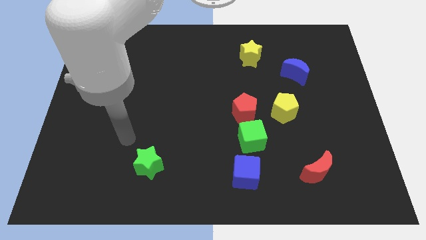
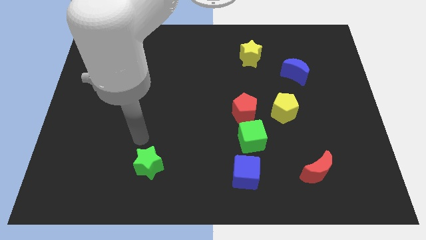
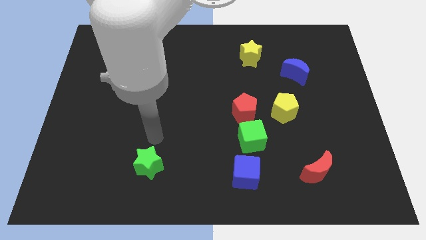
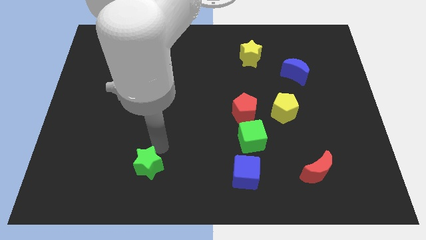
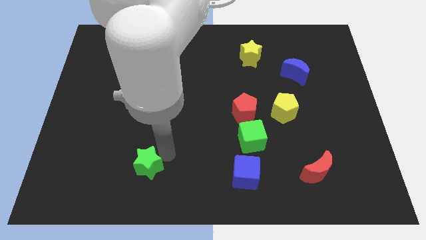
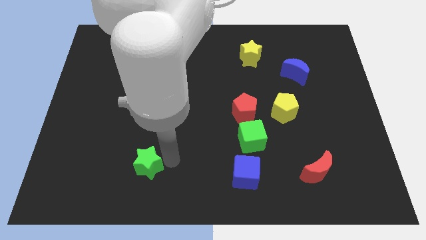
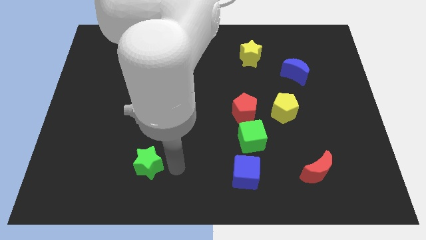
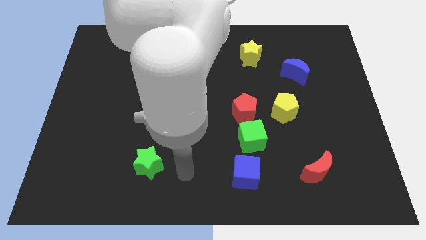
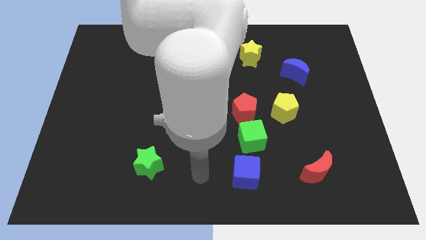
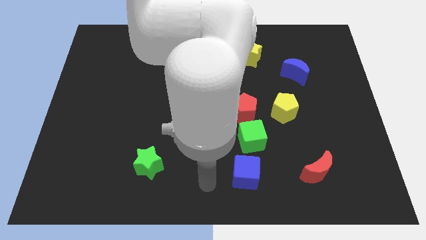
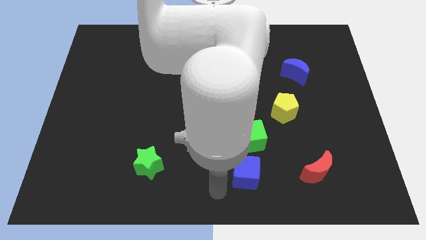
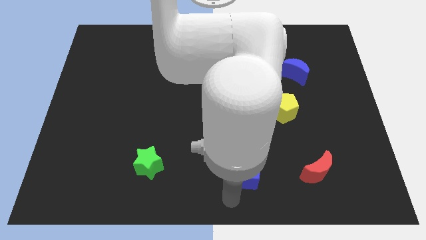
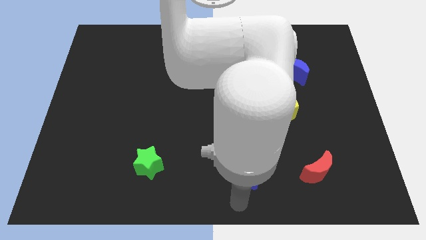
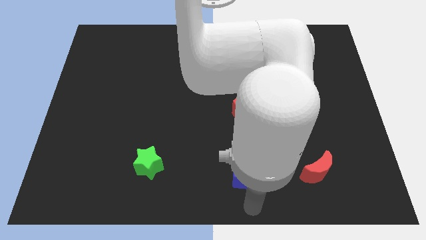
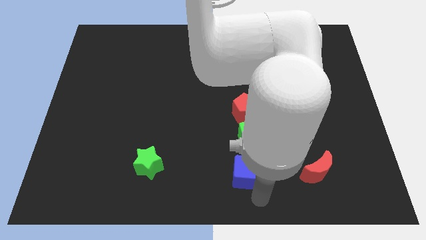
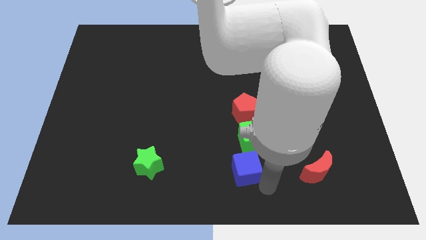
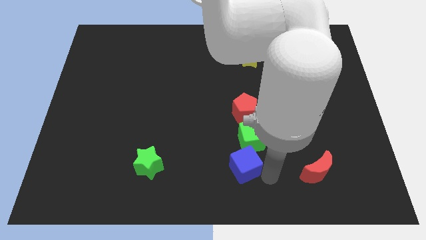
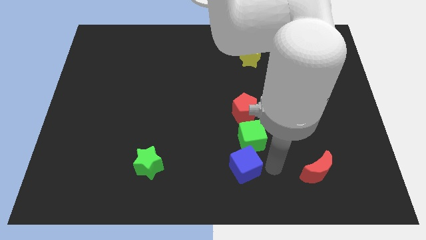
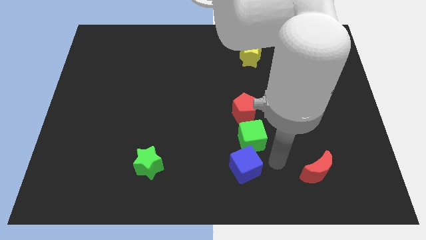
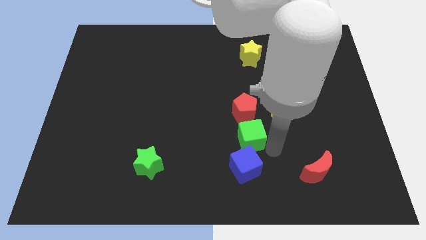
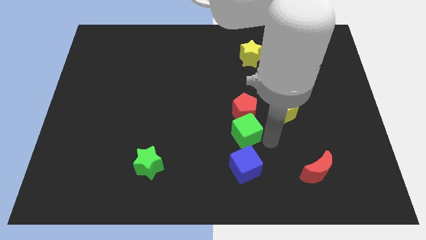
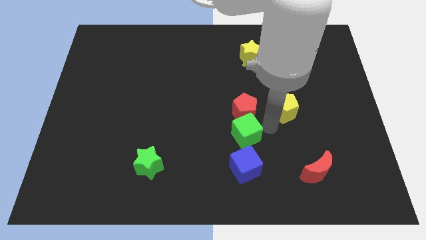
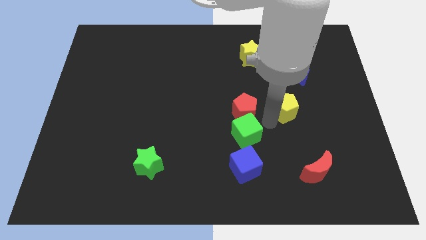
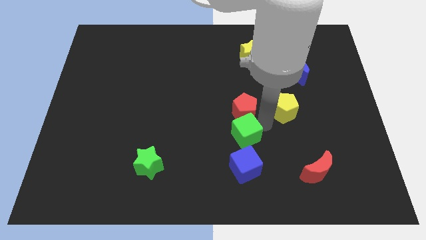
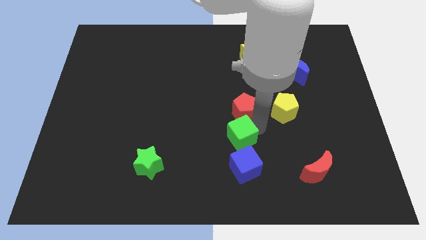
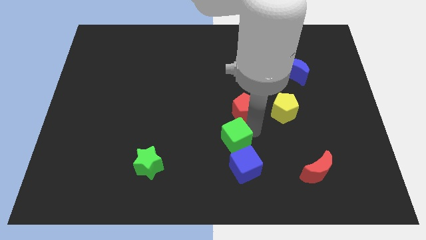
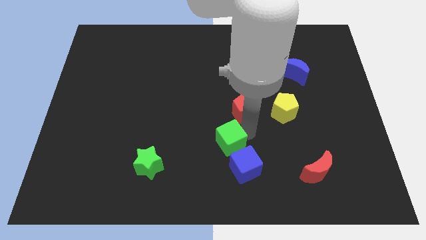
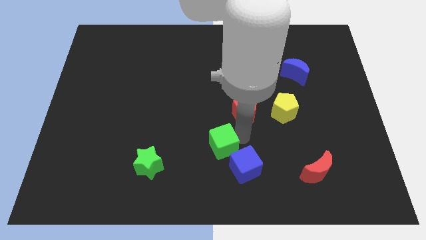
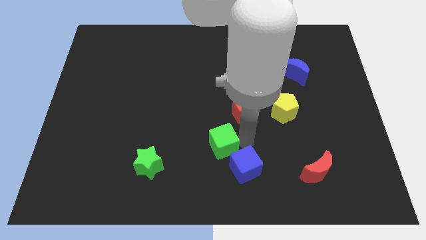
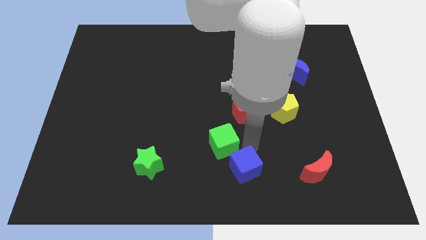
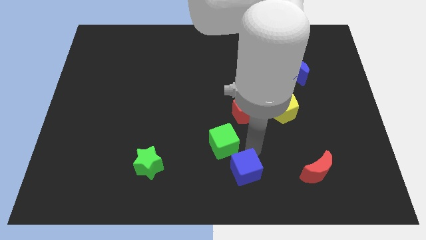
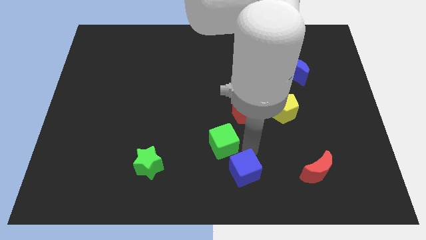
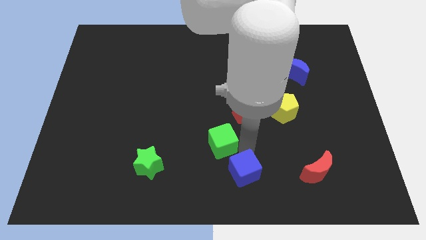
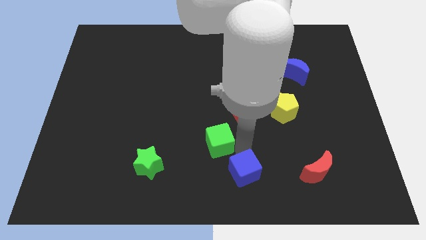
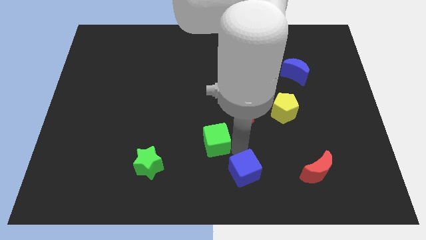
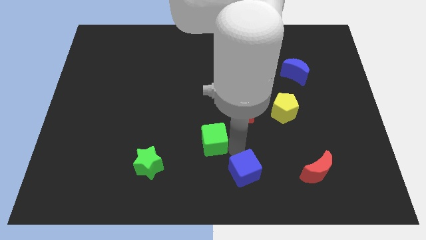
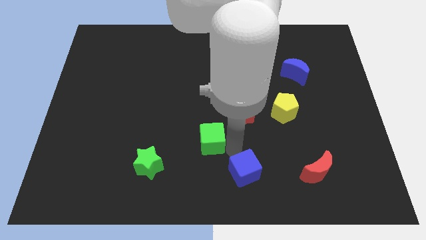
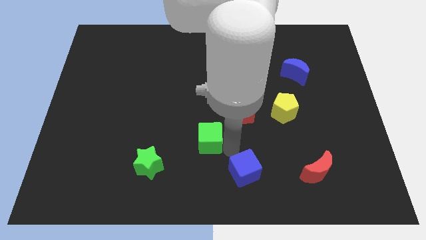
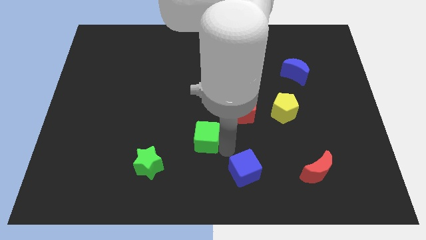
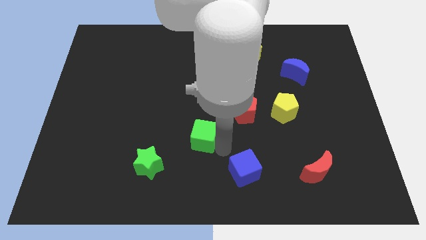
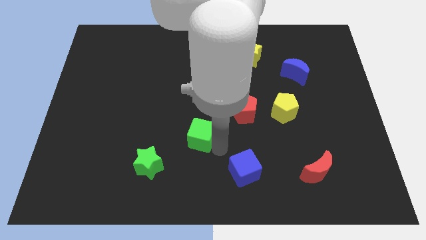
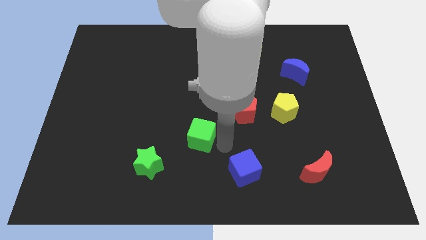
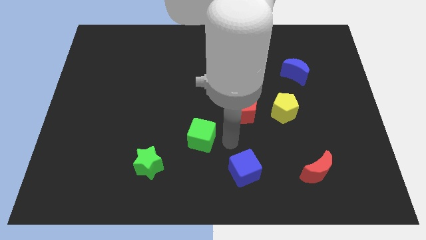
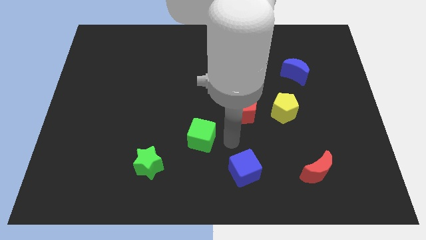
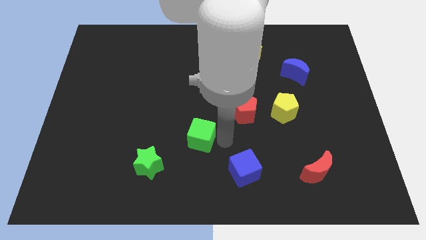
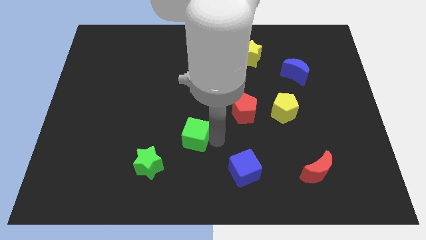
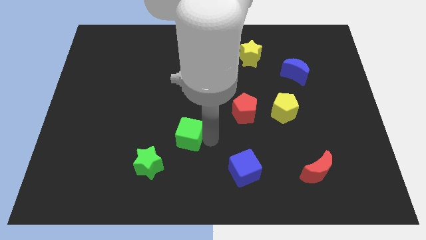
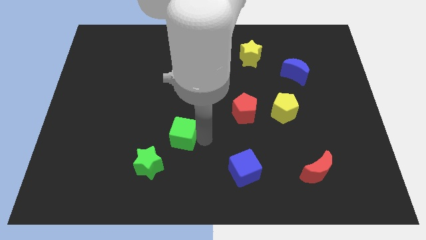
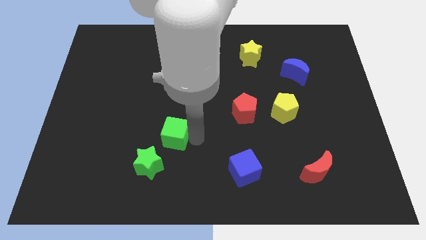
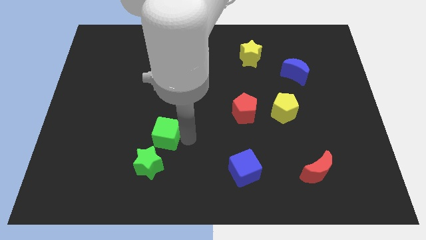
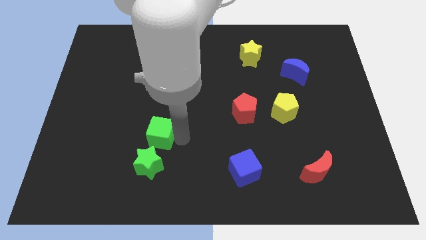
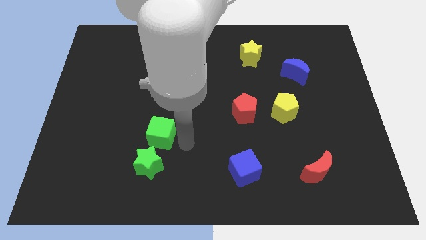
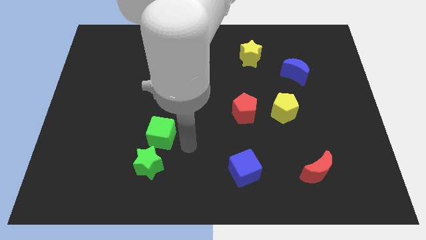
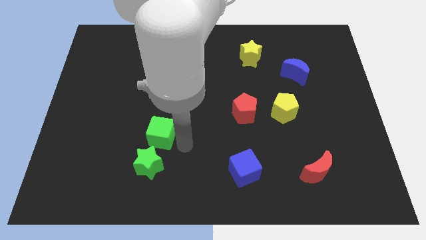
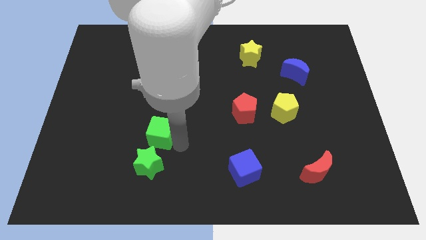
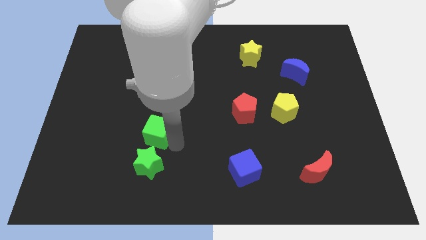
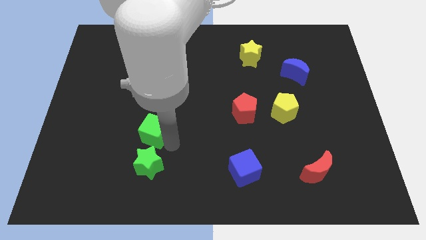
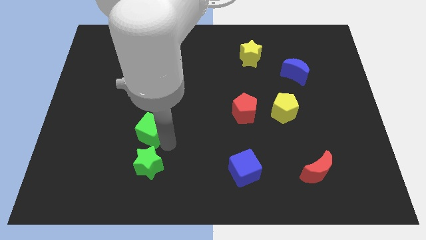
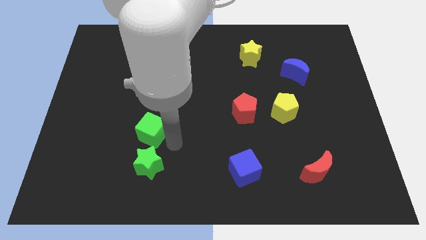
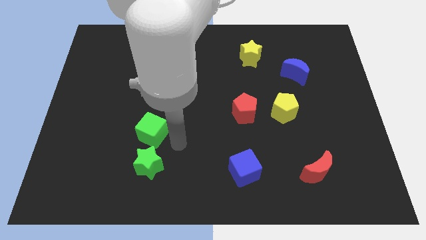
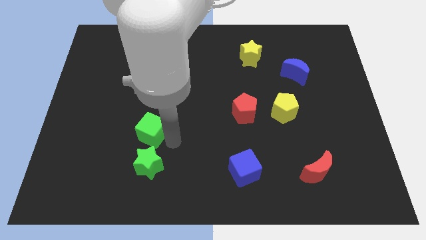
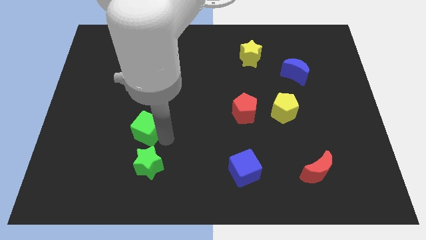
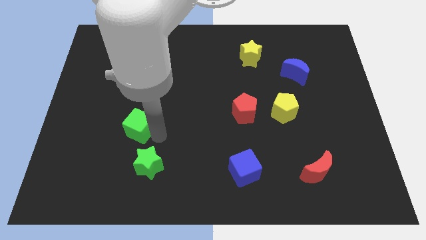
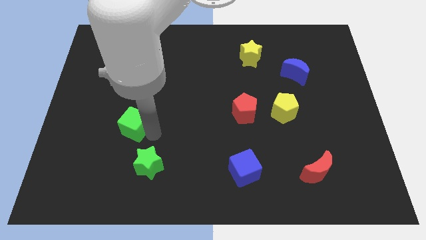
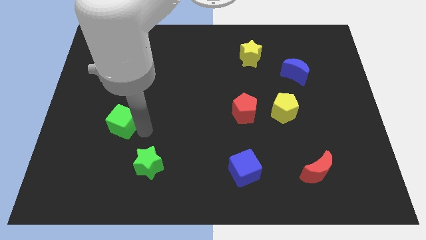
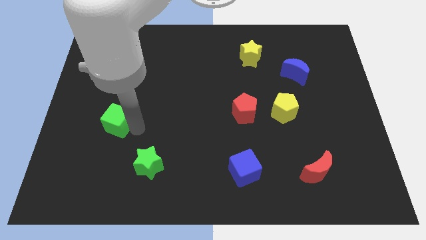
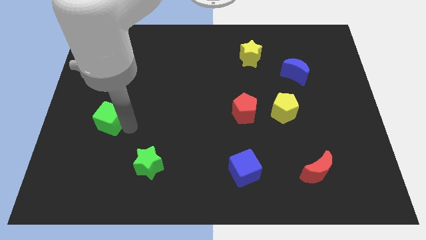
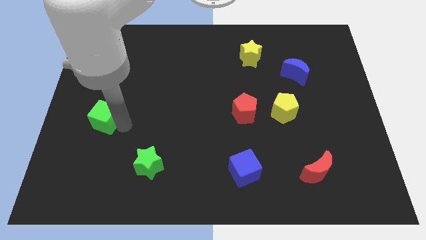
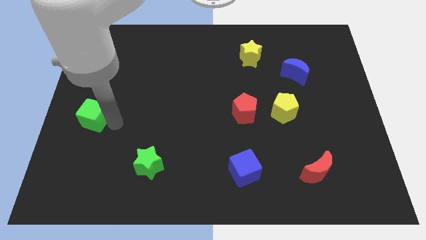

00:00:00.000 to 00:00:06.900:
put the green cube to the left side of the board

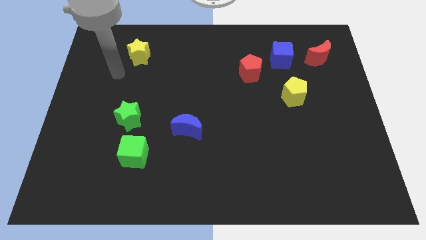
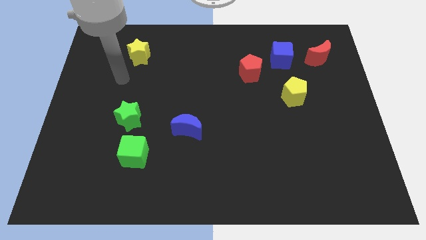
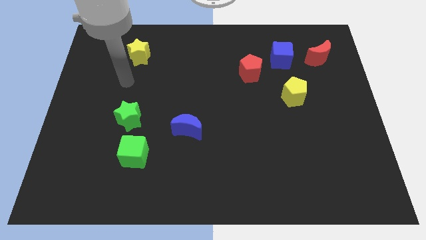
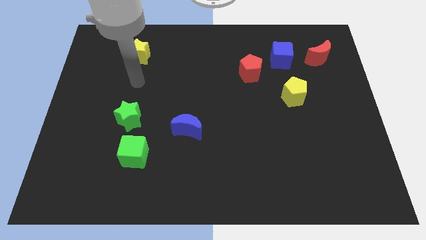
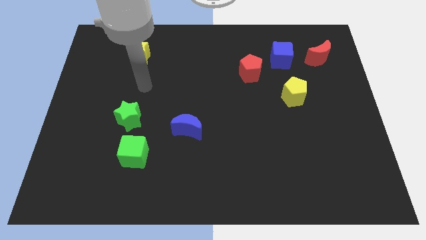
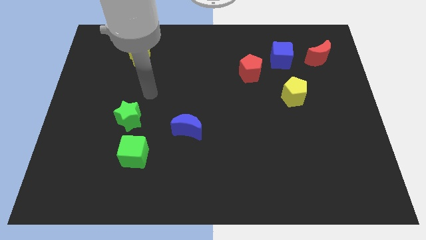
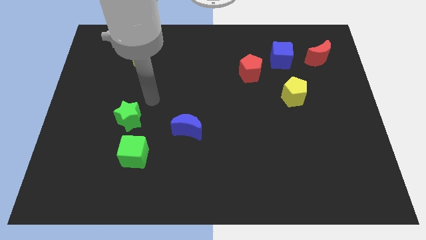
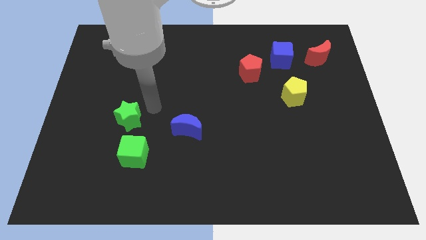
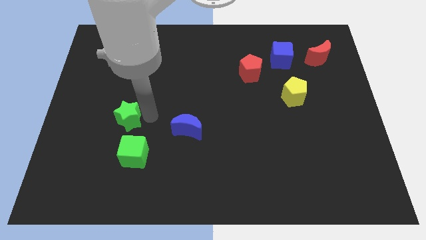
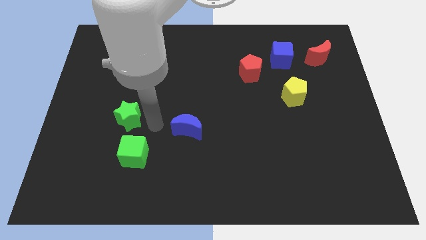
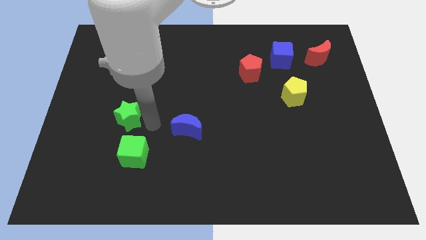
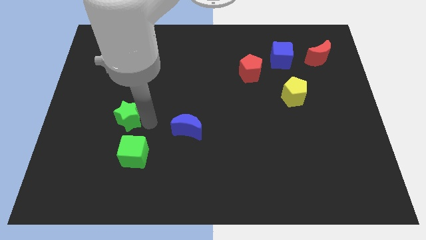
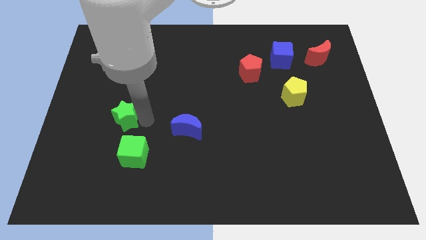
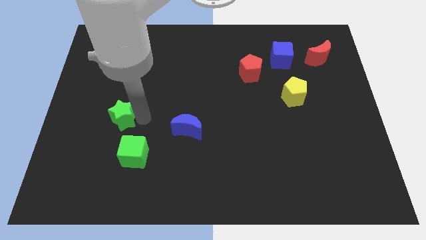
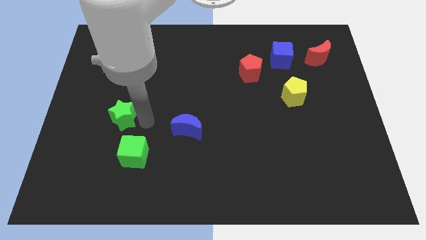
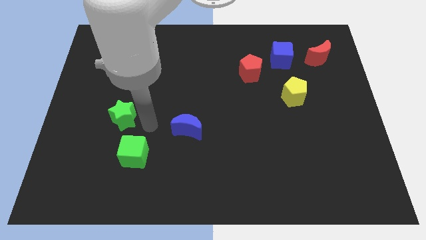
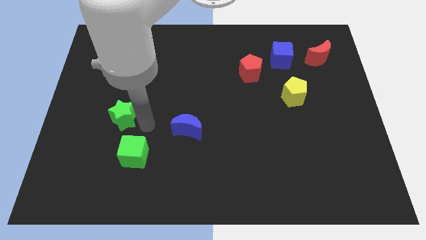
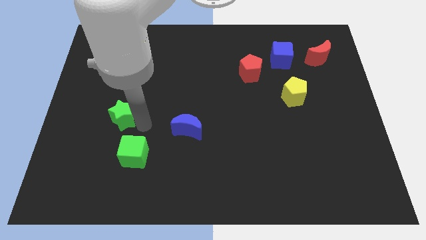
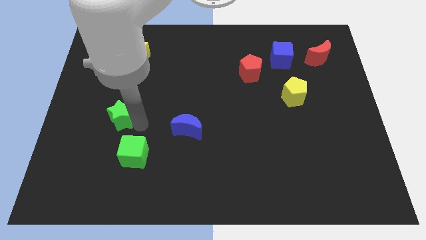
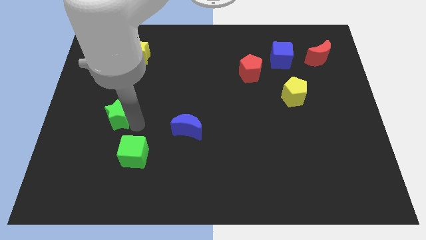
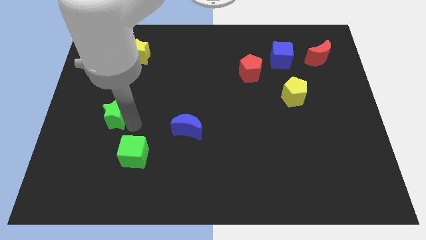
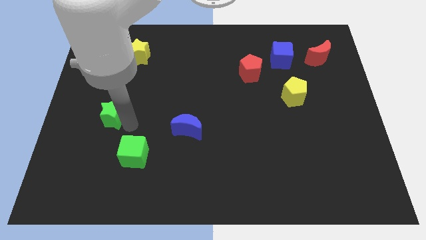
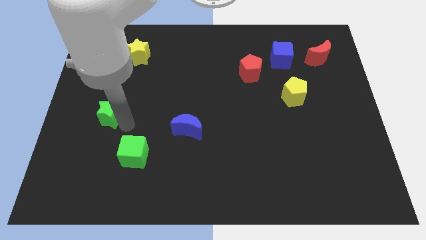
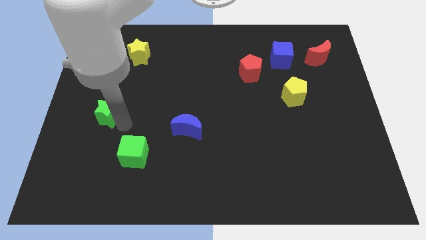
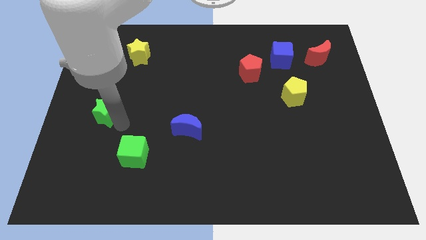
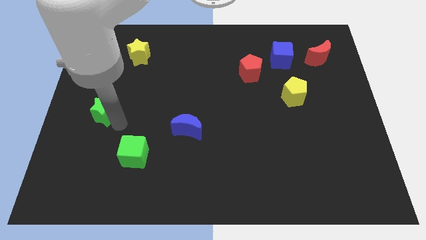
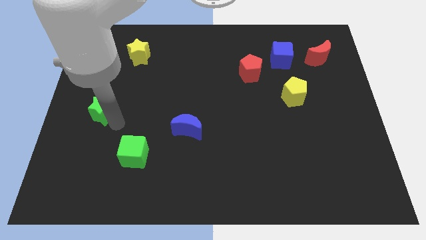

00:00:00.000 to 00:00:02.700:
put the green star to the left side
